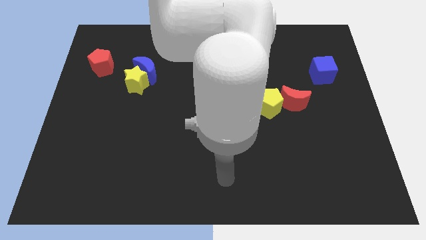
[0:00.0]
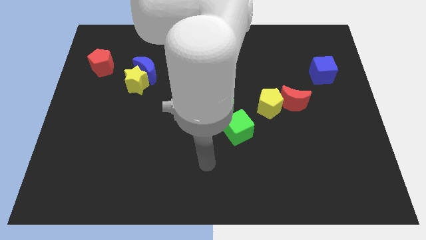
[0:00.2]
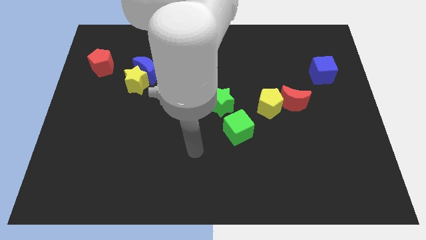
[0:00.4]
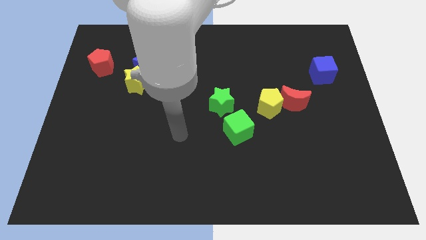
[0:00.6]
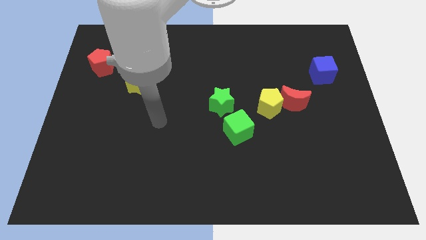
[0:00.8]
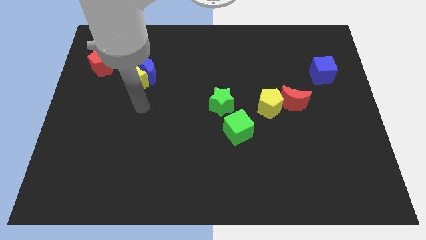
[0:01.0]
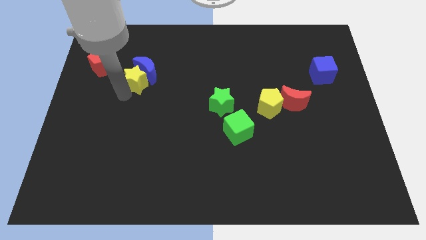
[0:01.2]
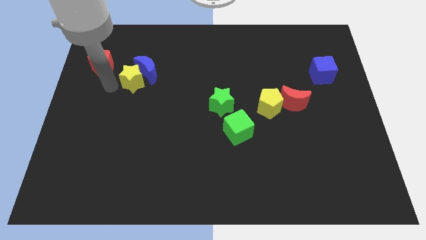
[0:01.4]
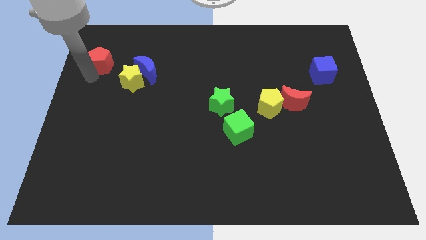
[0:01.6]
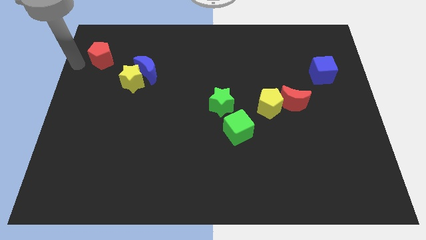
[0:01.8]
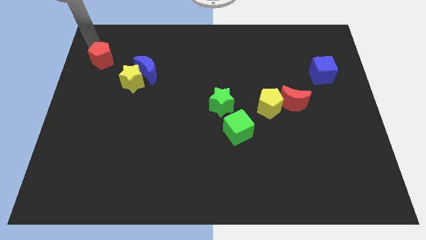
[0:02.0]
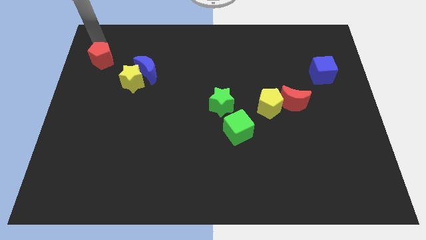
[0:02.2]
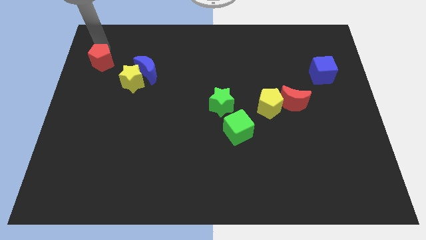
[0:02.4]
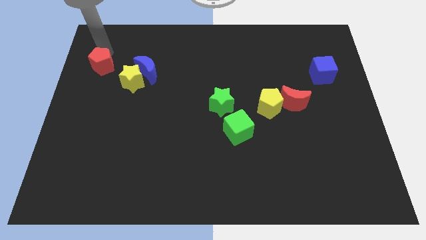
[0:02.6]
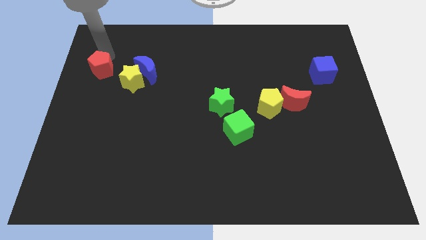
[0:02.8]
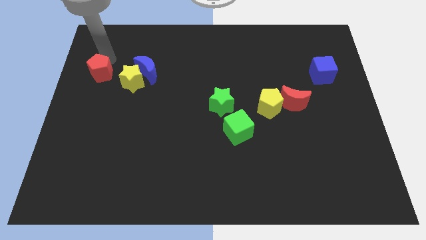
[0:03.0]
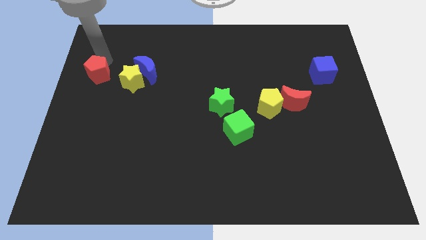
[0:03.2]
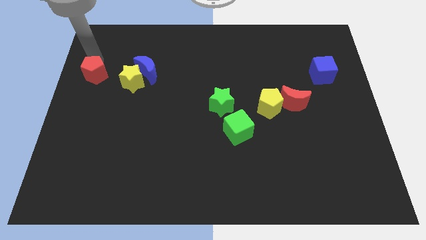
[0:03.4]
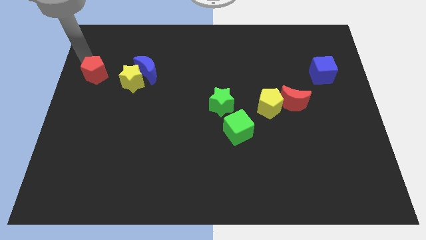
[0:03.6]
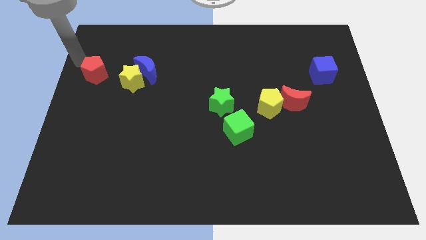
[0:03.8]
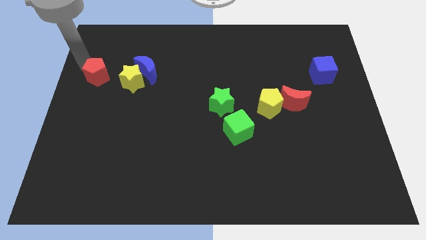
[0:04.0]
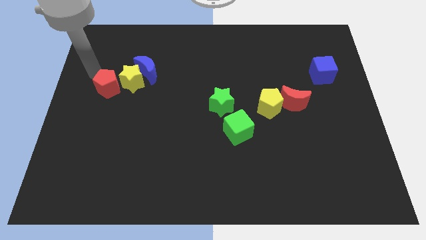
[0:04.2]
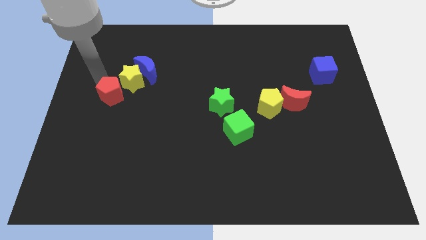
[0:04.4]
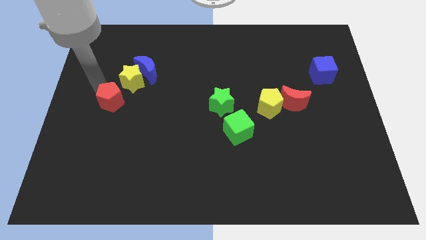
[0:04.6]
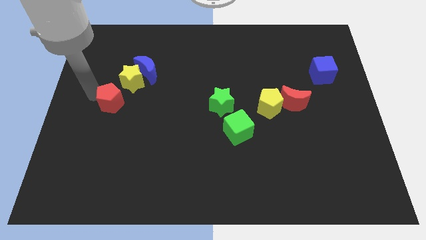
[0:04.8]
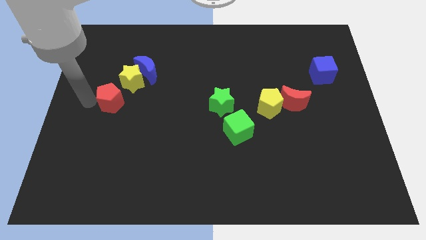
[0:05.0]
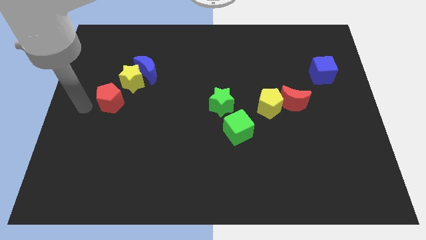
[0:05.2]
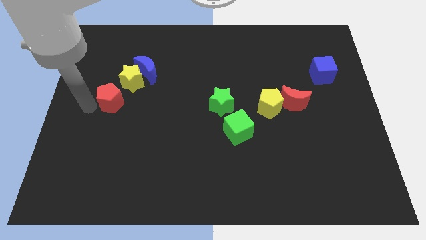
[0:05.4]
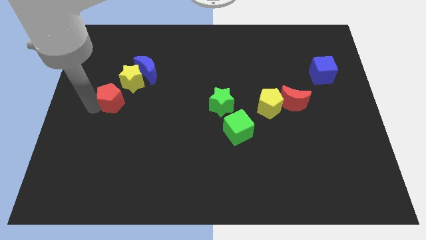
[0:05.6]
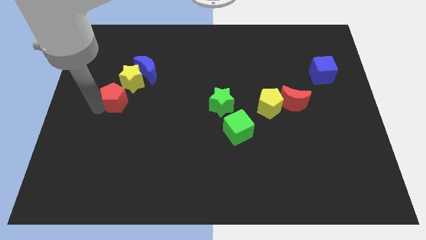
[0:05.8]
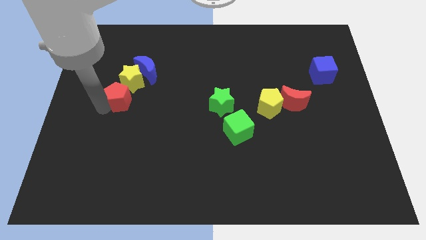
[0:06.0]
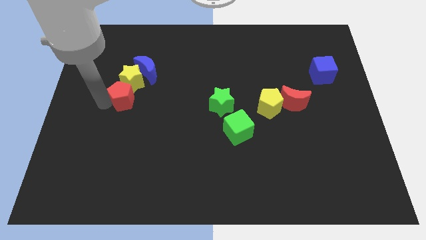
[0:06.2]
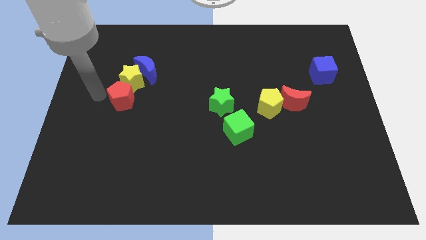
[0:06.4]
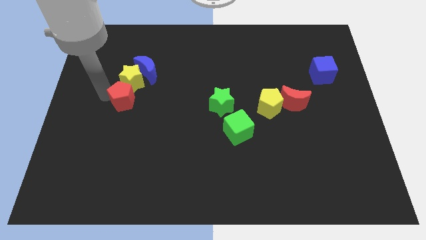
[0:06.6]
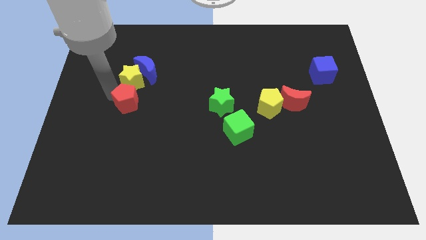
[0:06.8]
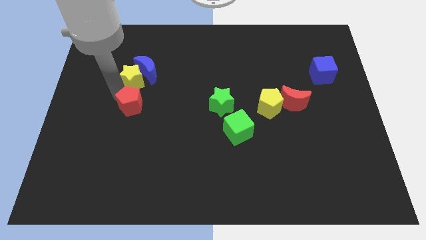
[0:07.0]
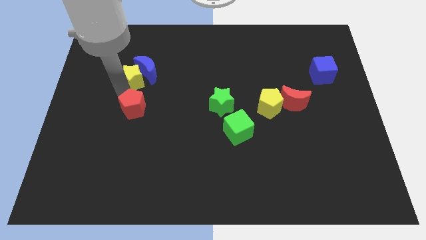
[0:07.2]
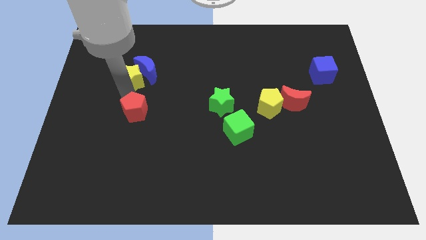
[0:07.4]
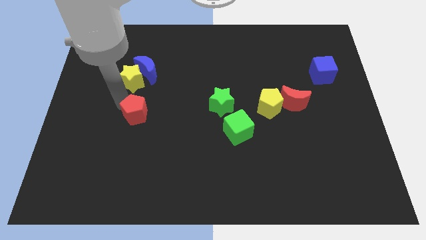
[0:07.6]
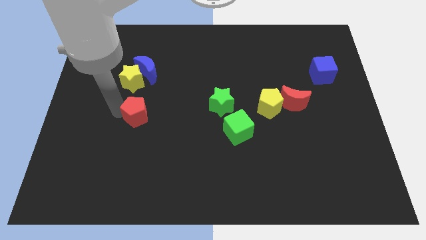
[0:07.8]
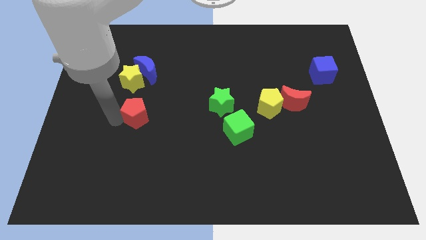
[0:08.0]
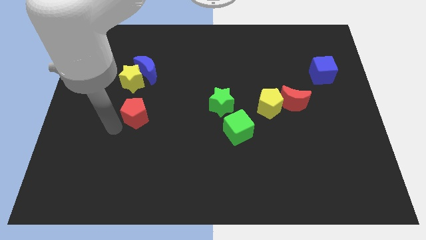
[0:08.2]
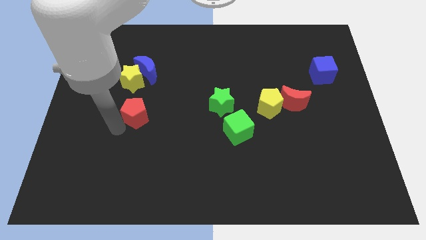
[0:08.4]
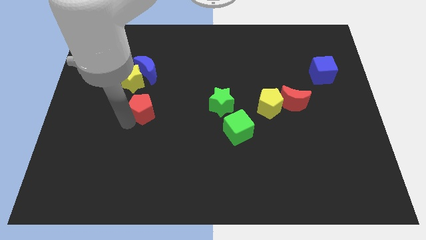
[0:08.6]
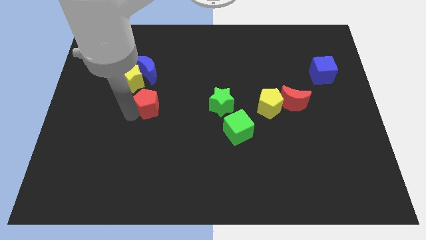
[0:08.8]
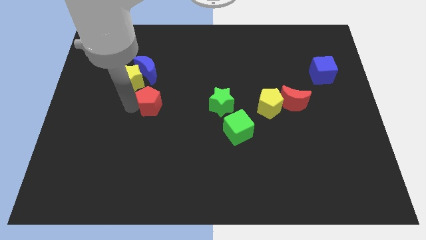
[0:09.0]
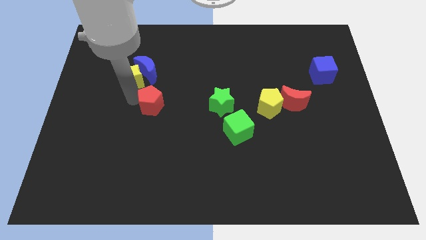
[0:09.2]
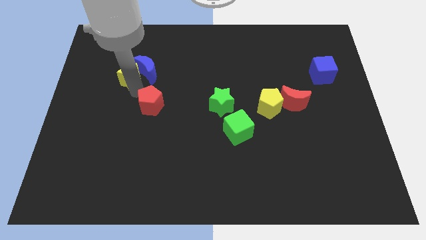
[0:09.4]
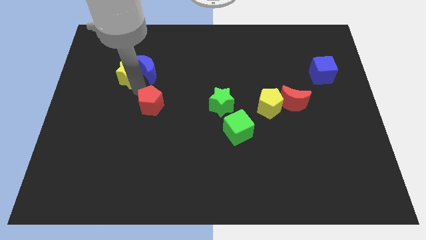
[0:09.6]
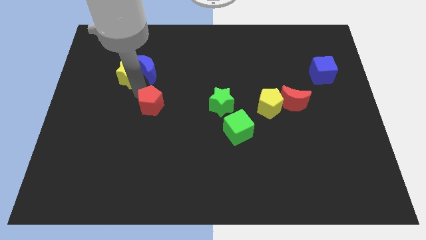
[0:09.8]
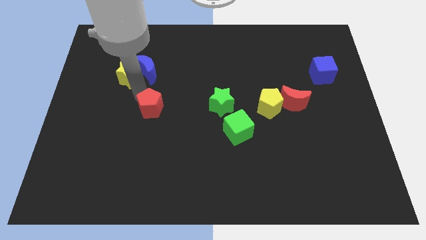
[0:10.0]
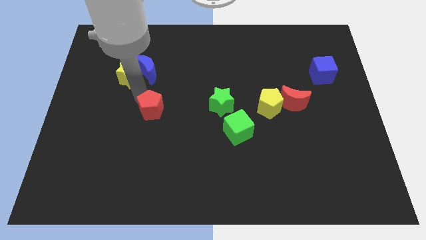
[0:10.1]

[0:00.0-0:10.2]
move the red pentagon diagonally down and right

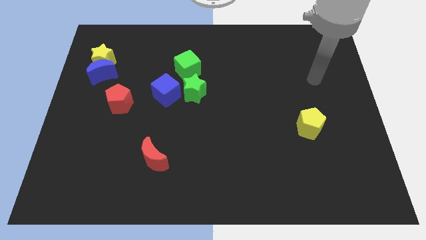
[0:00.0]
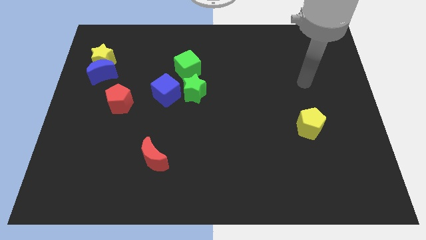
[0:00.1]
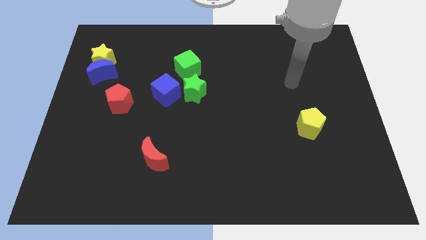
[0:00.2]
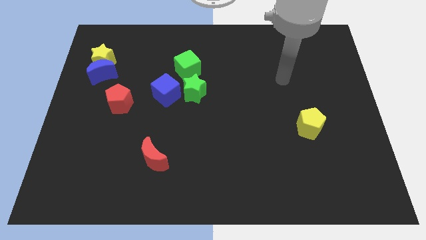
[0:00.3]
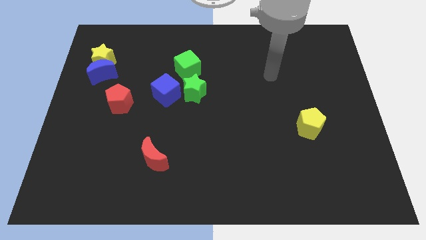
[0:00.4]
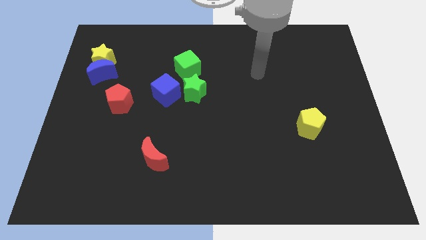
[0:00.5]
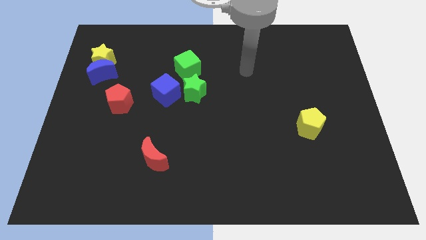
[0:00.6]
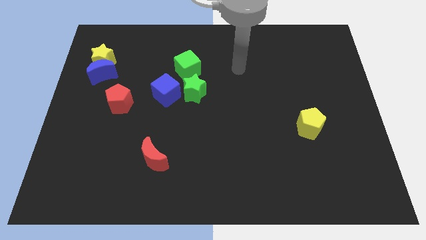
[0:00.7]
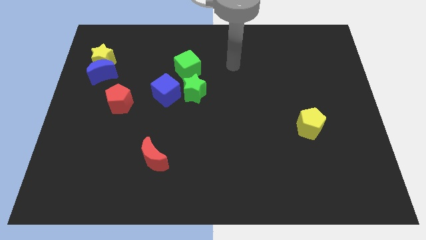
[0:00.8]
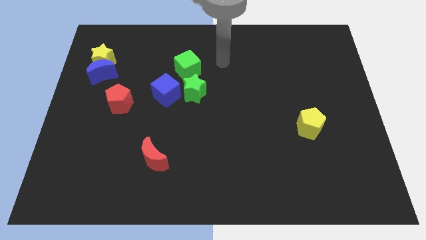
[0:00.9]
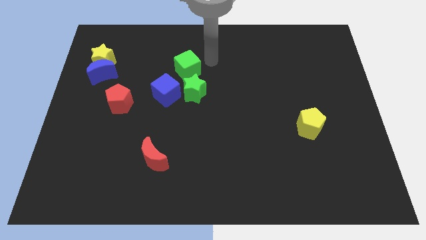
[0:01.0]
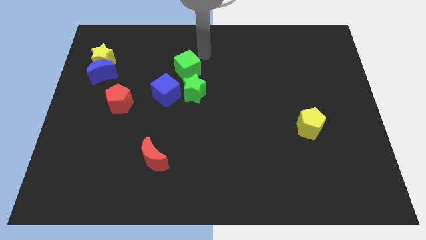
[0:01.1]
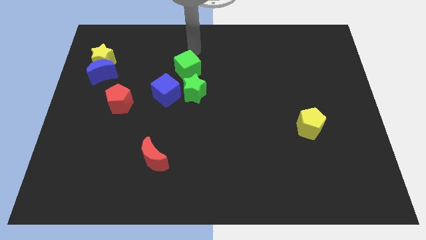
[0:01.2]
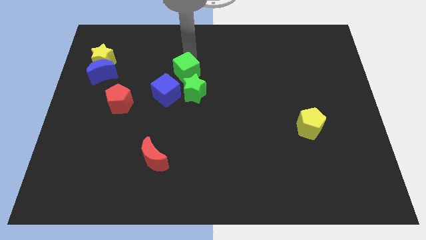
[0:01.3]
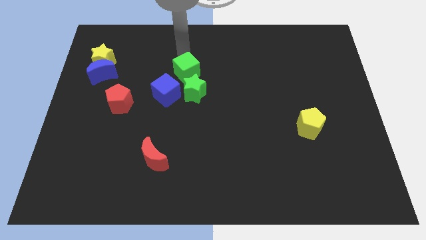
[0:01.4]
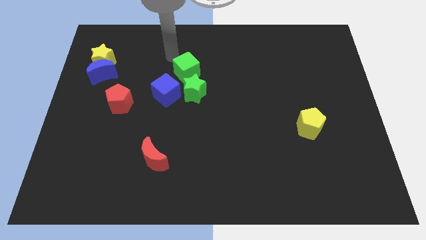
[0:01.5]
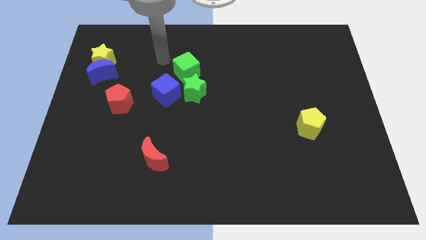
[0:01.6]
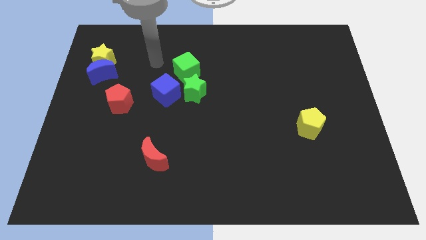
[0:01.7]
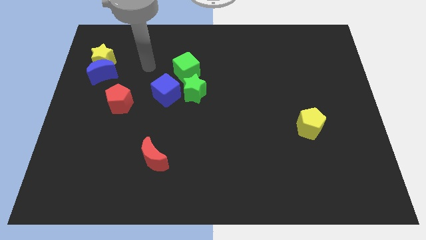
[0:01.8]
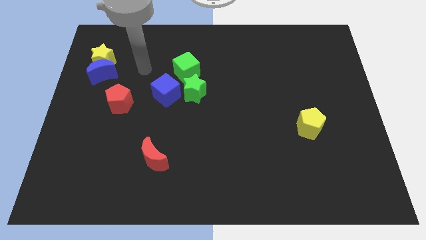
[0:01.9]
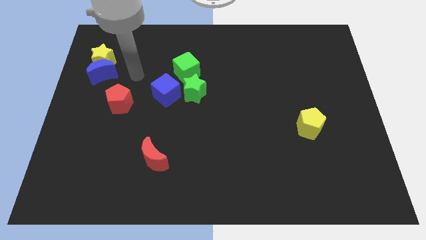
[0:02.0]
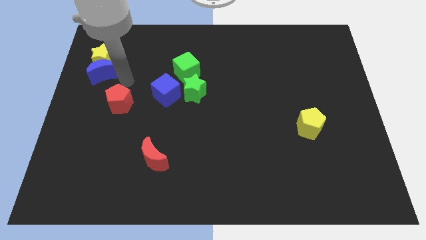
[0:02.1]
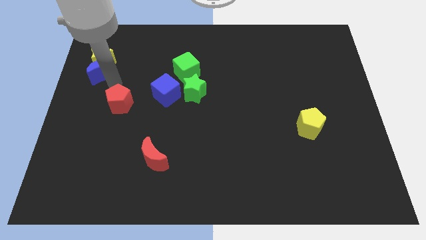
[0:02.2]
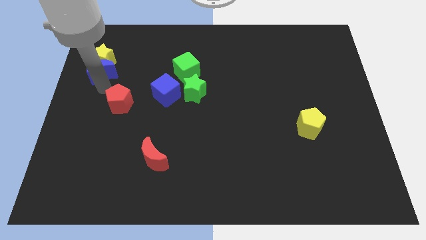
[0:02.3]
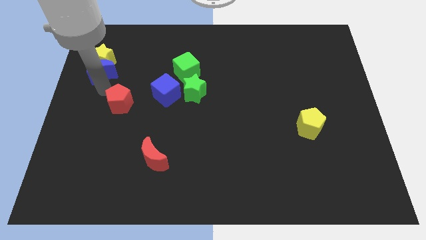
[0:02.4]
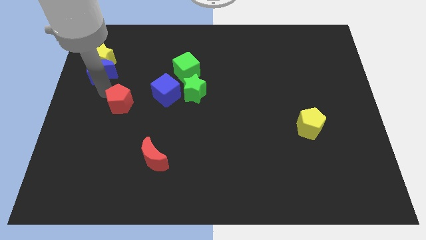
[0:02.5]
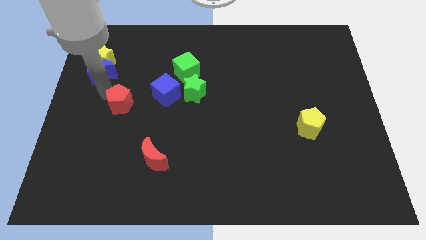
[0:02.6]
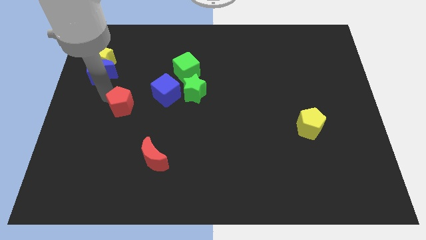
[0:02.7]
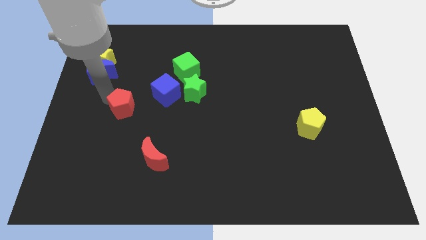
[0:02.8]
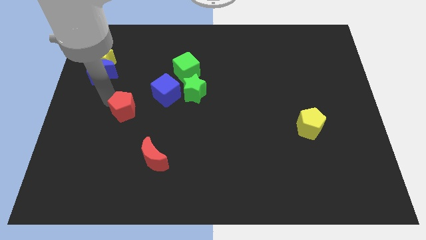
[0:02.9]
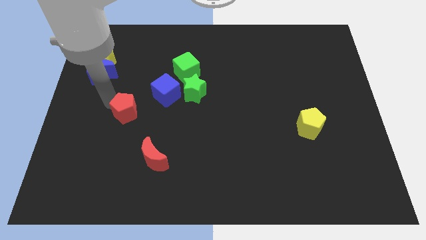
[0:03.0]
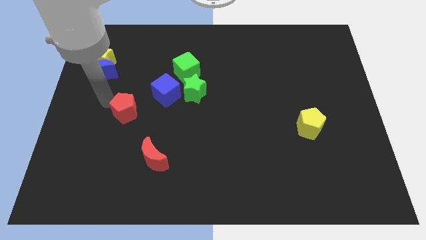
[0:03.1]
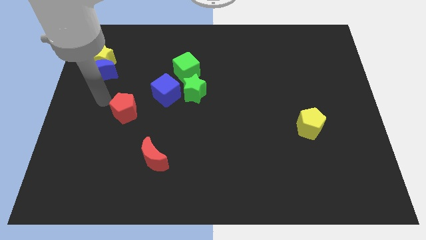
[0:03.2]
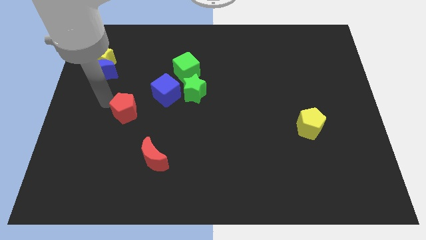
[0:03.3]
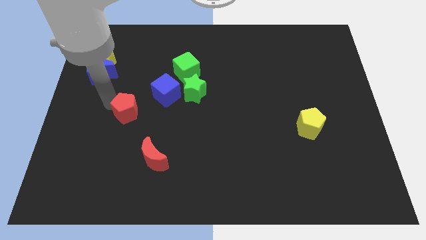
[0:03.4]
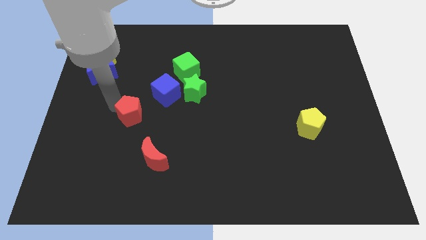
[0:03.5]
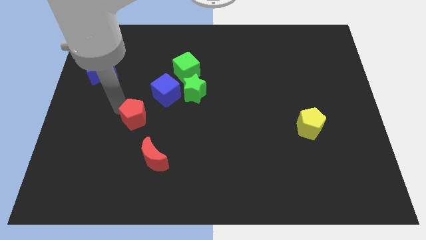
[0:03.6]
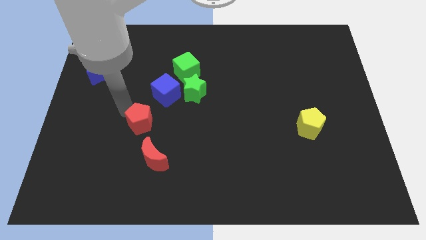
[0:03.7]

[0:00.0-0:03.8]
slightly push the red pentagon down and right diagonally
